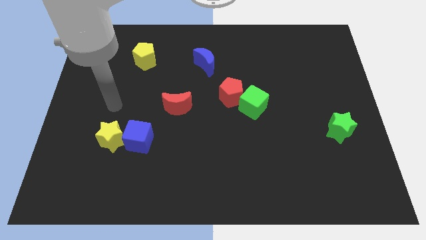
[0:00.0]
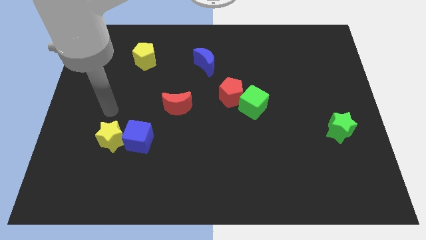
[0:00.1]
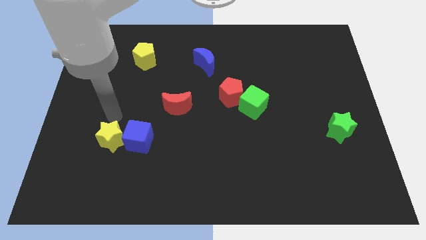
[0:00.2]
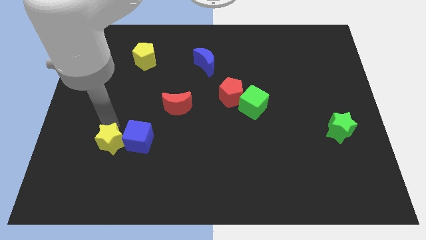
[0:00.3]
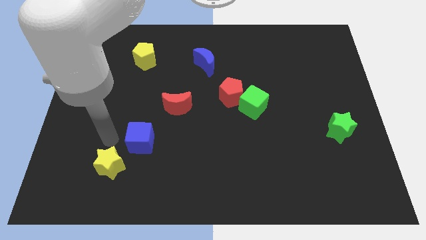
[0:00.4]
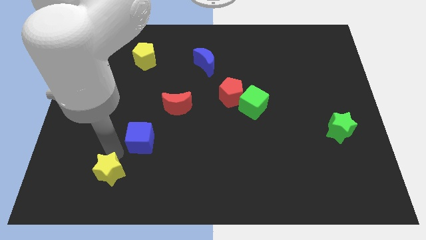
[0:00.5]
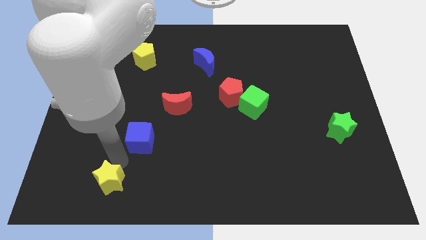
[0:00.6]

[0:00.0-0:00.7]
separate the blue cube from the yellow star

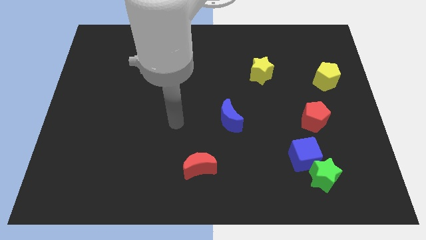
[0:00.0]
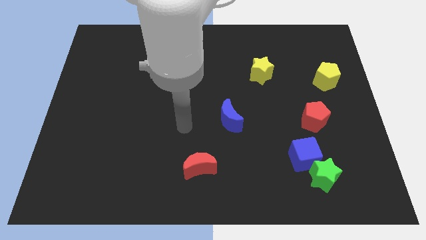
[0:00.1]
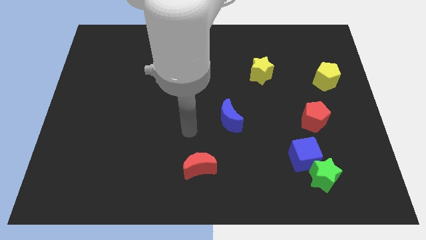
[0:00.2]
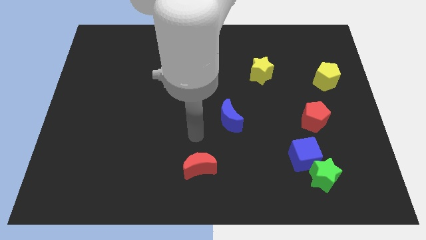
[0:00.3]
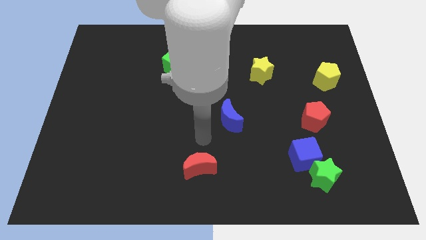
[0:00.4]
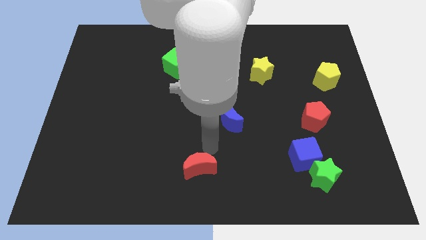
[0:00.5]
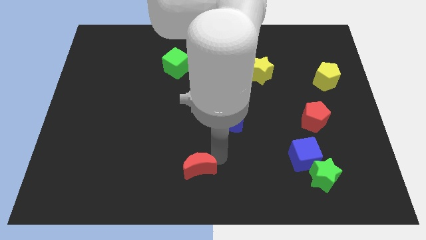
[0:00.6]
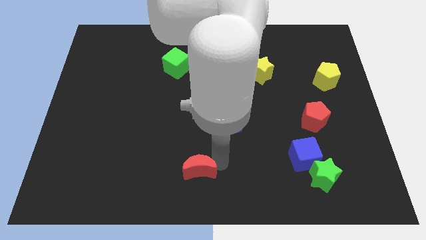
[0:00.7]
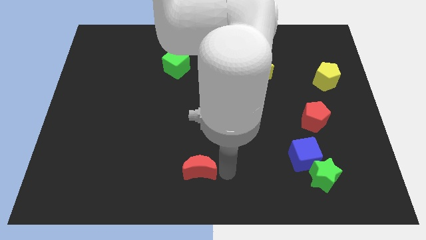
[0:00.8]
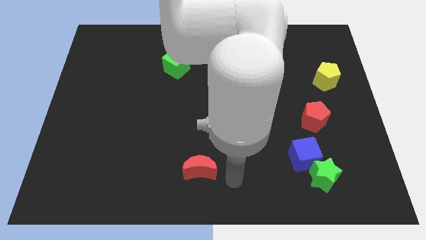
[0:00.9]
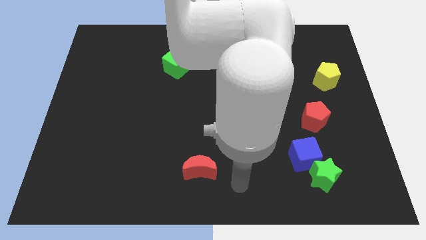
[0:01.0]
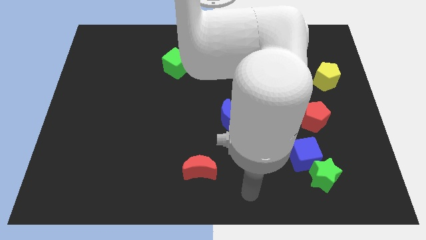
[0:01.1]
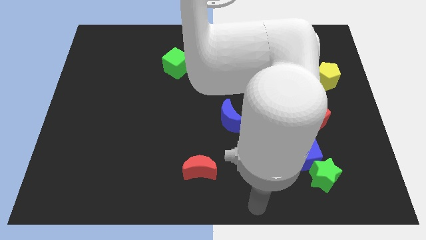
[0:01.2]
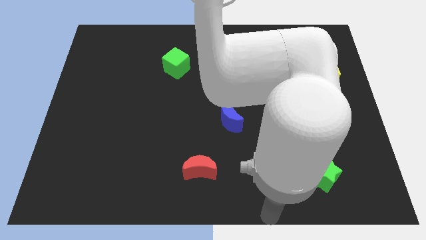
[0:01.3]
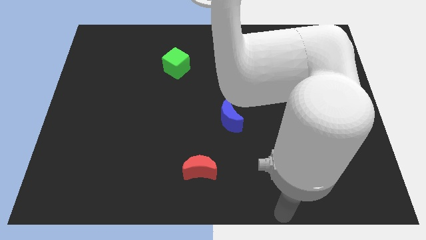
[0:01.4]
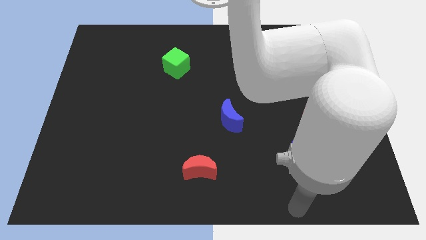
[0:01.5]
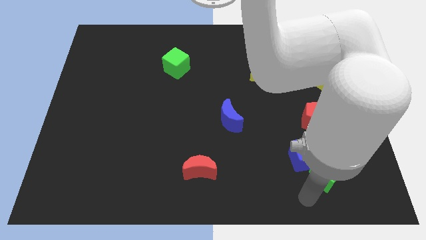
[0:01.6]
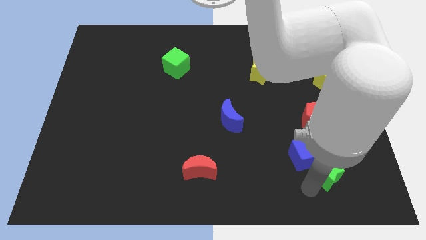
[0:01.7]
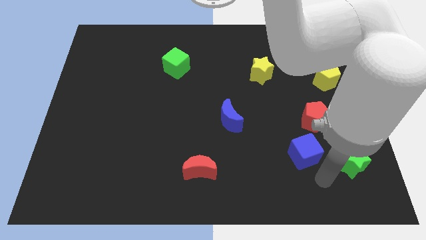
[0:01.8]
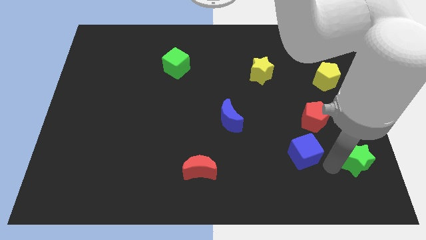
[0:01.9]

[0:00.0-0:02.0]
pull the blue cube apart from the green star

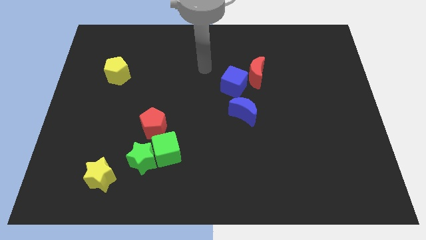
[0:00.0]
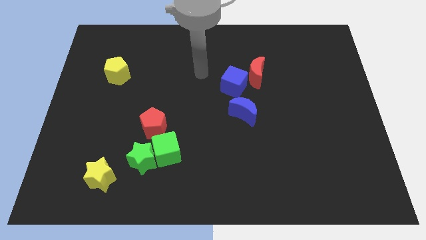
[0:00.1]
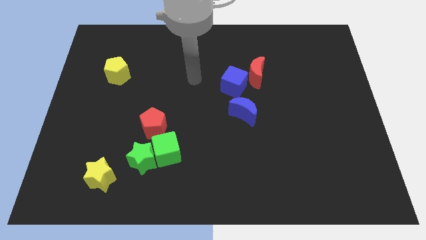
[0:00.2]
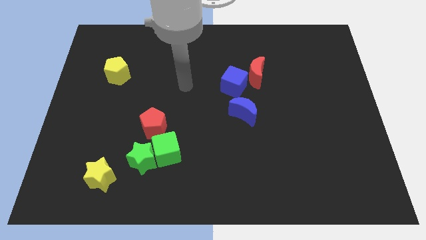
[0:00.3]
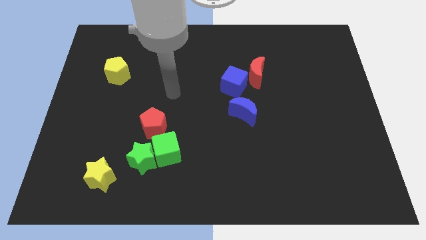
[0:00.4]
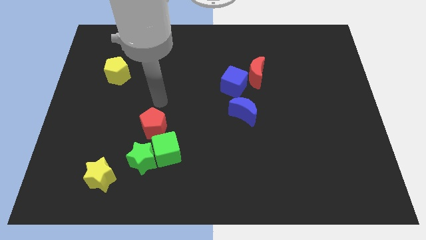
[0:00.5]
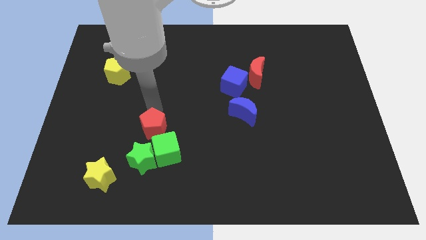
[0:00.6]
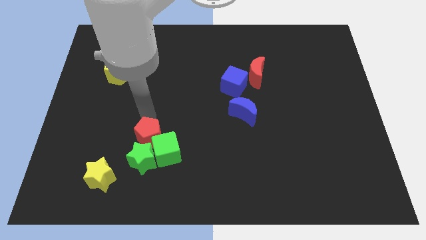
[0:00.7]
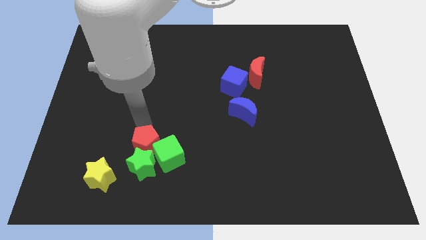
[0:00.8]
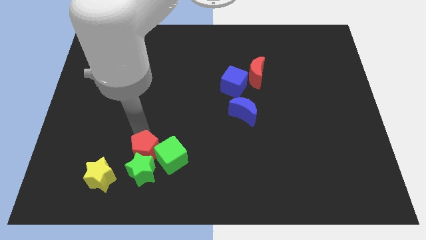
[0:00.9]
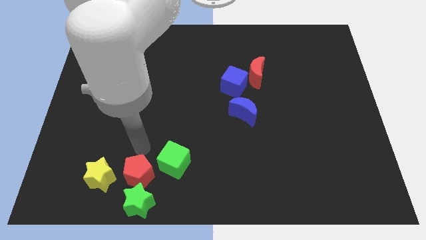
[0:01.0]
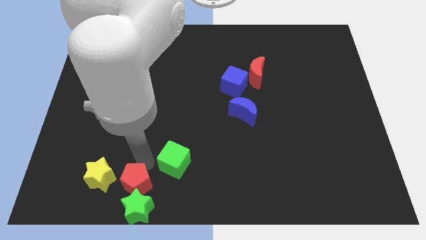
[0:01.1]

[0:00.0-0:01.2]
separate the green cube from the green star and red pentagon

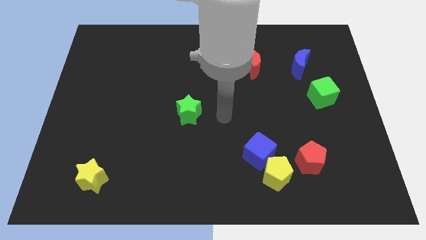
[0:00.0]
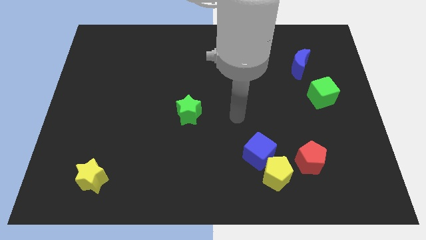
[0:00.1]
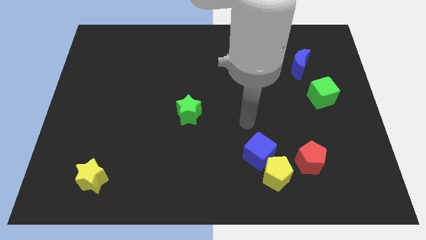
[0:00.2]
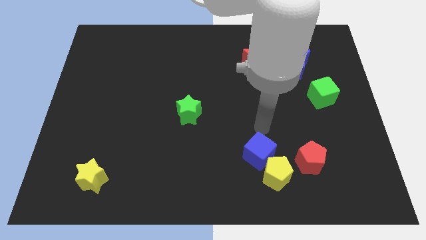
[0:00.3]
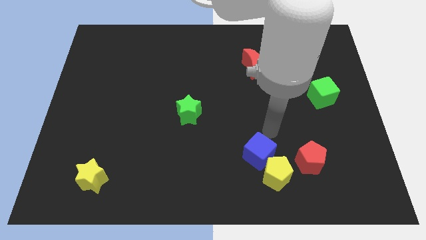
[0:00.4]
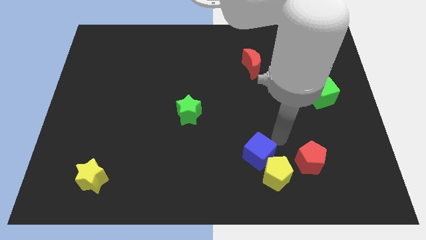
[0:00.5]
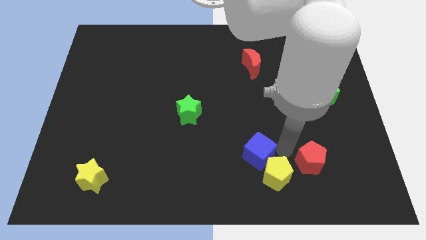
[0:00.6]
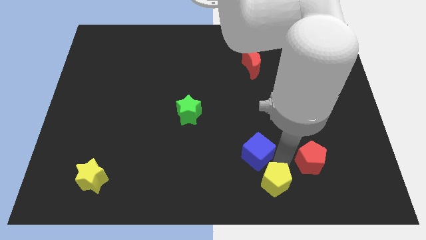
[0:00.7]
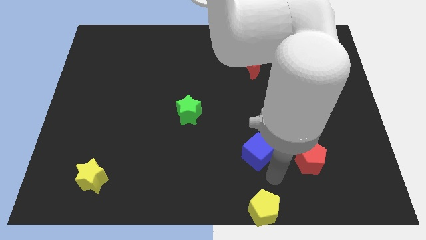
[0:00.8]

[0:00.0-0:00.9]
separate the blue cube from the yellow pentagon

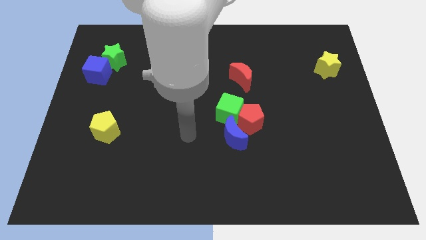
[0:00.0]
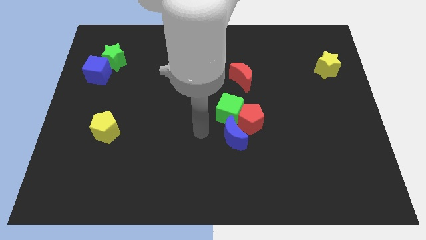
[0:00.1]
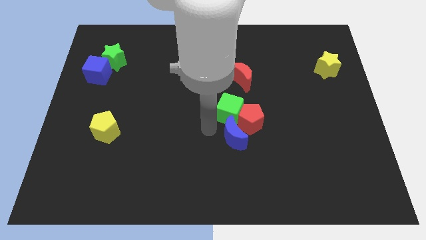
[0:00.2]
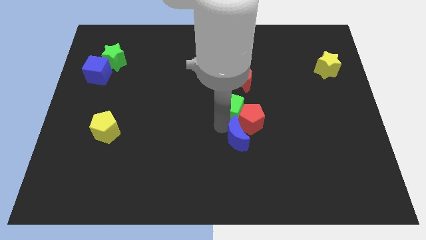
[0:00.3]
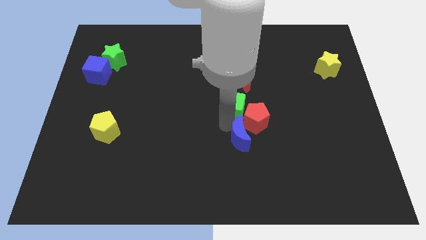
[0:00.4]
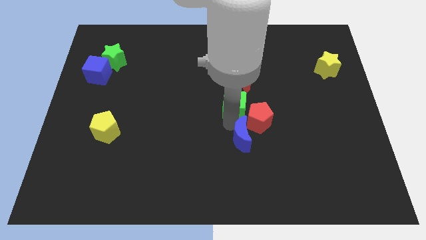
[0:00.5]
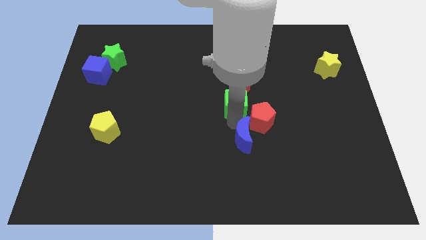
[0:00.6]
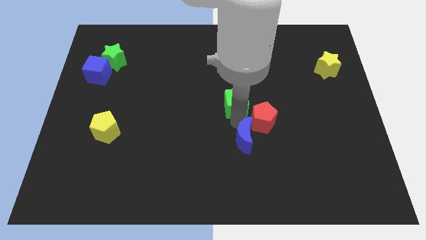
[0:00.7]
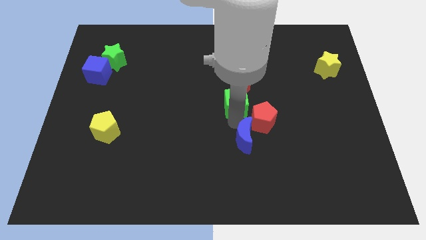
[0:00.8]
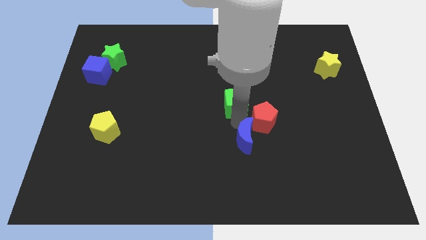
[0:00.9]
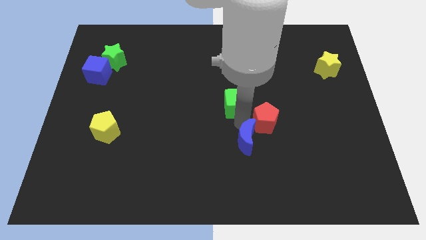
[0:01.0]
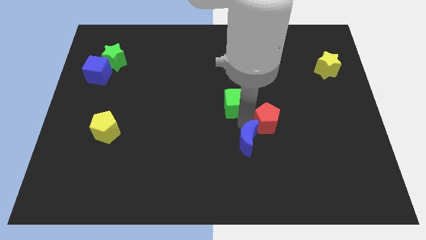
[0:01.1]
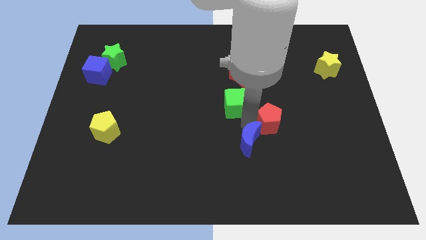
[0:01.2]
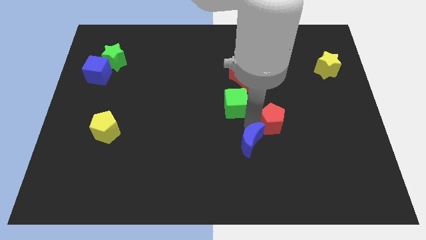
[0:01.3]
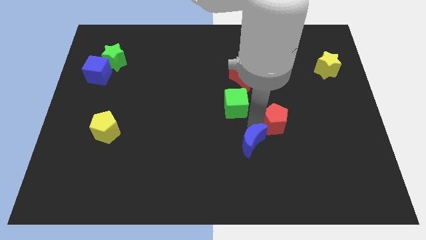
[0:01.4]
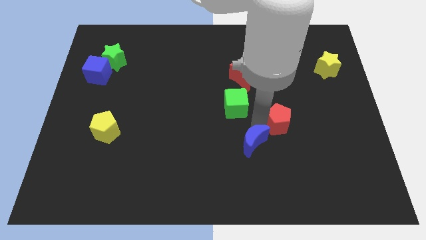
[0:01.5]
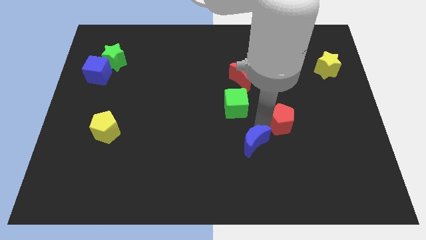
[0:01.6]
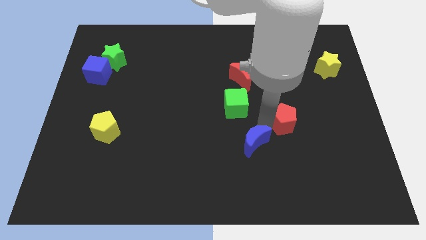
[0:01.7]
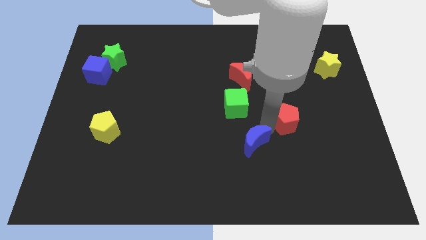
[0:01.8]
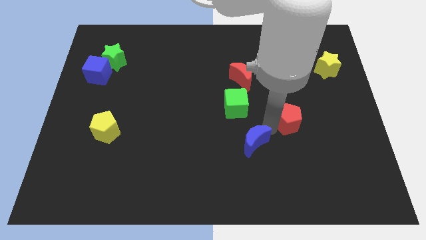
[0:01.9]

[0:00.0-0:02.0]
separate the red pentagon from the green cube and blue moon

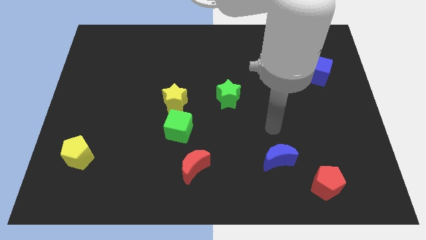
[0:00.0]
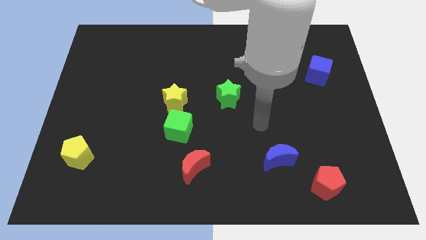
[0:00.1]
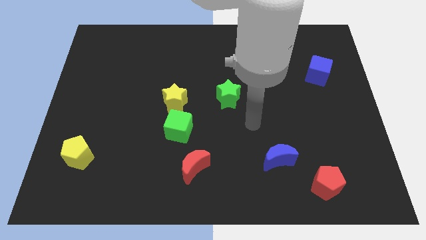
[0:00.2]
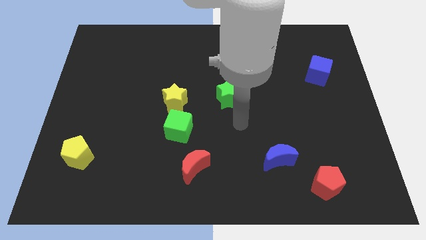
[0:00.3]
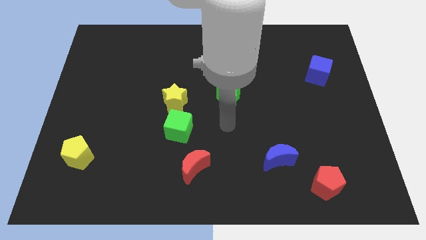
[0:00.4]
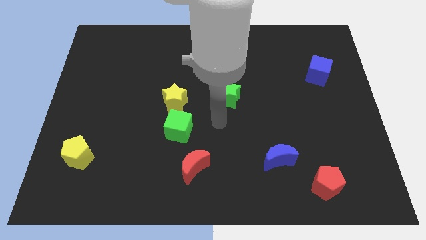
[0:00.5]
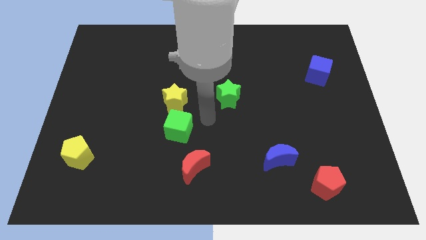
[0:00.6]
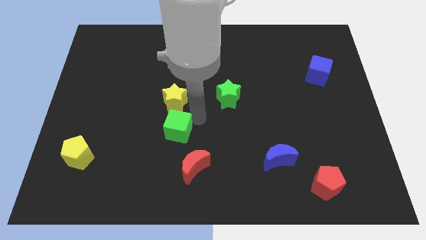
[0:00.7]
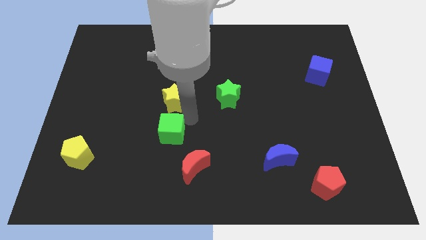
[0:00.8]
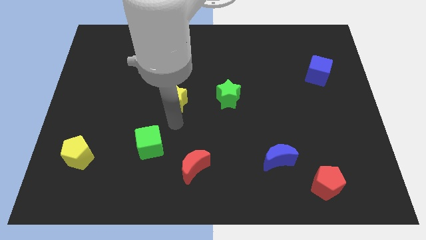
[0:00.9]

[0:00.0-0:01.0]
pull the yellow star apart from the green cube

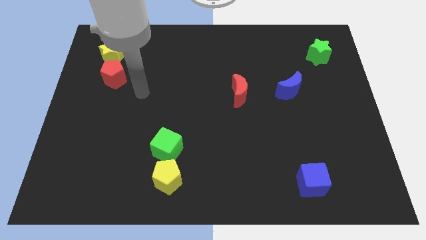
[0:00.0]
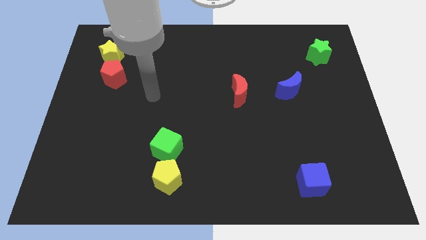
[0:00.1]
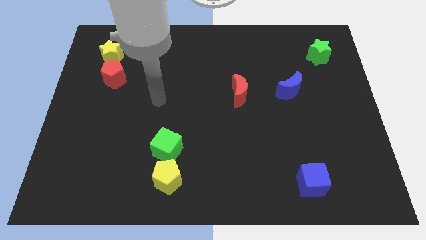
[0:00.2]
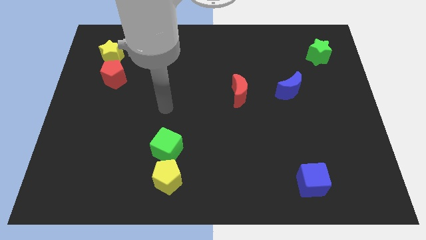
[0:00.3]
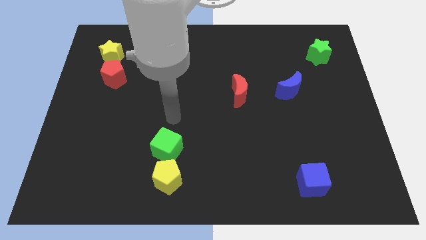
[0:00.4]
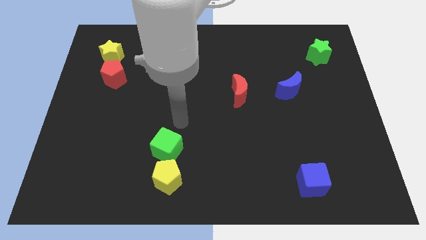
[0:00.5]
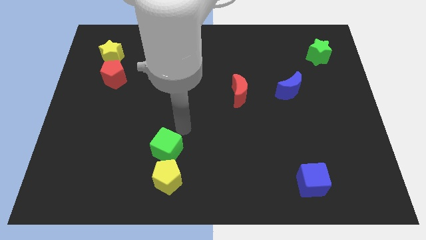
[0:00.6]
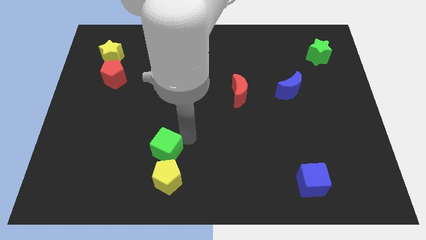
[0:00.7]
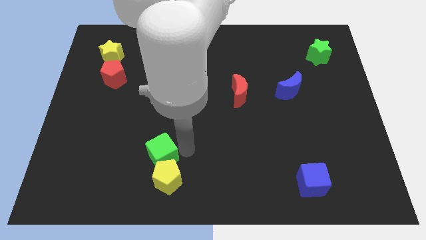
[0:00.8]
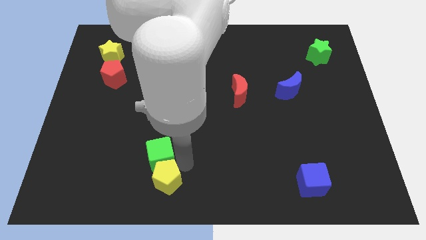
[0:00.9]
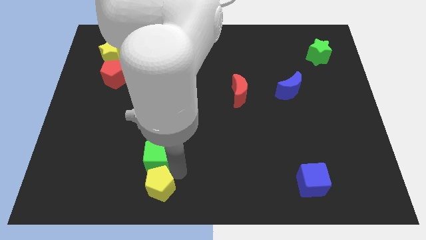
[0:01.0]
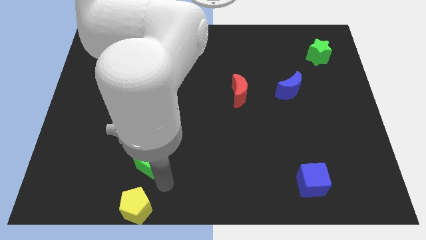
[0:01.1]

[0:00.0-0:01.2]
move the green cube away from the yellow pentagon
